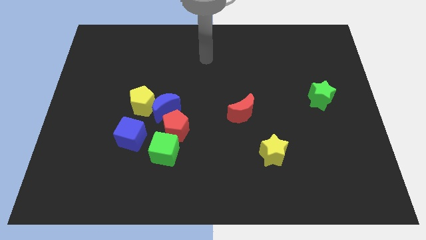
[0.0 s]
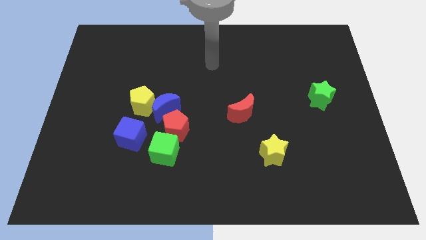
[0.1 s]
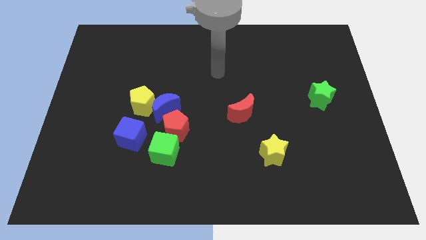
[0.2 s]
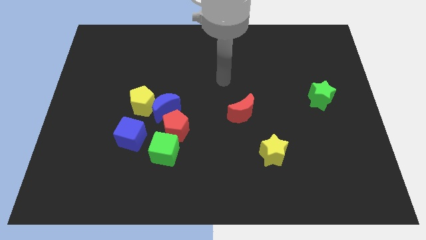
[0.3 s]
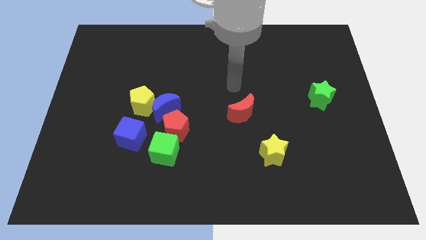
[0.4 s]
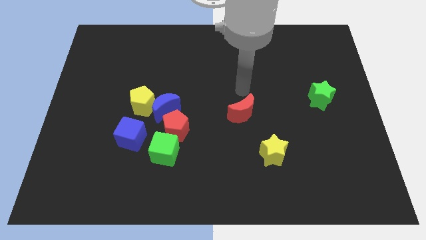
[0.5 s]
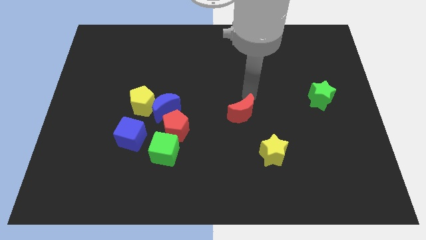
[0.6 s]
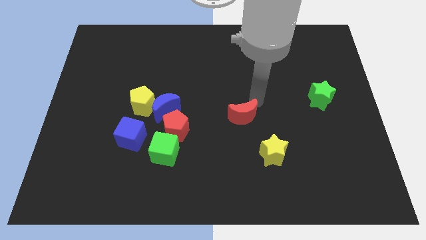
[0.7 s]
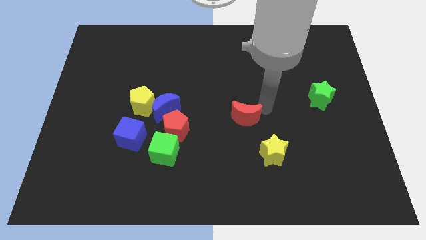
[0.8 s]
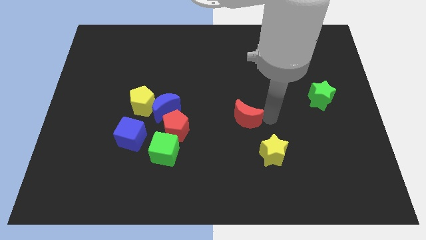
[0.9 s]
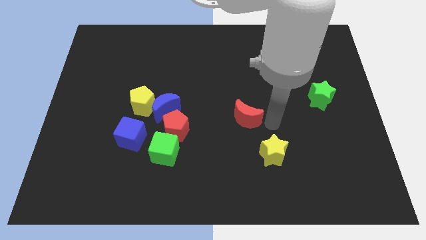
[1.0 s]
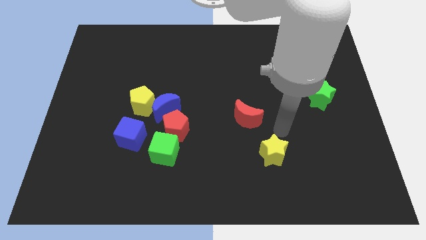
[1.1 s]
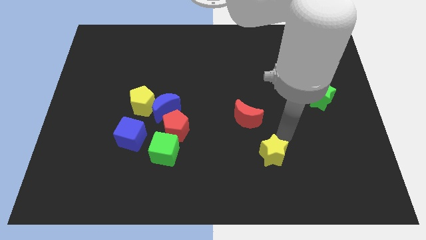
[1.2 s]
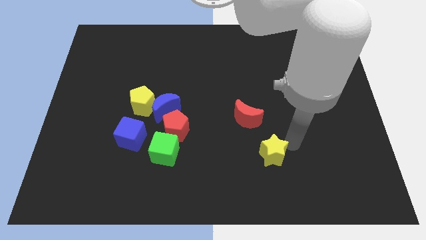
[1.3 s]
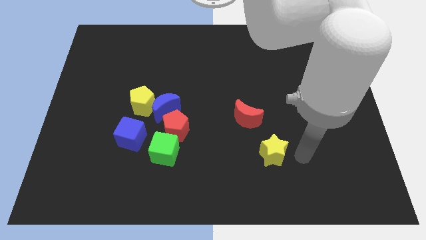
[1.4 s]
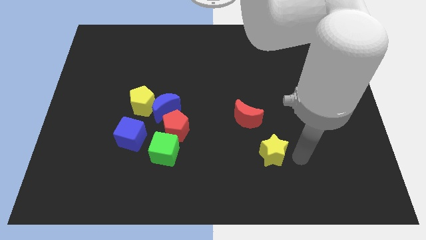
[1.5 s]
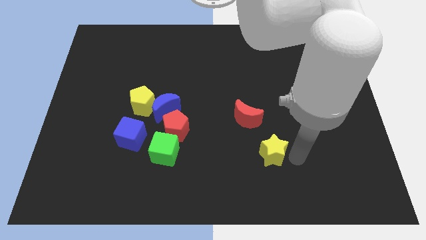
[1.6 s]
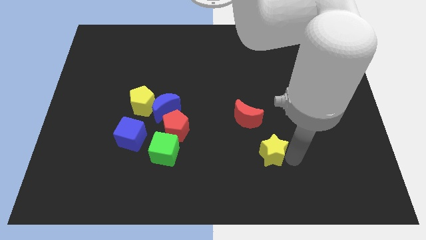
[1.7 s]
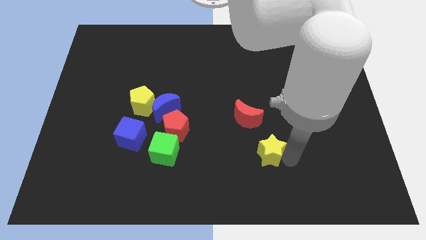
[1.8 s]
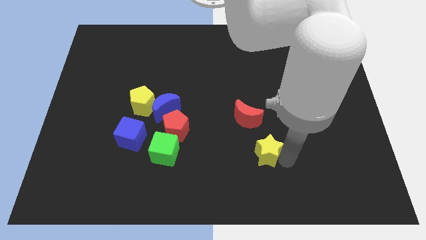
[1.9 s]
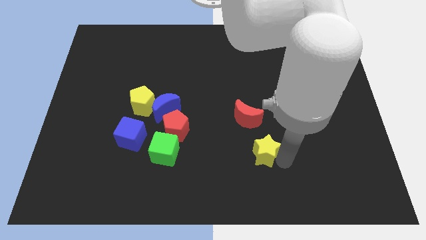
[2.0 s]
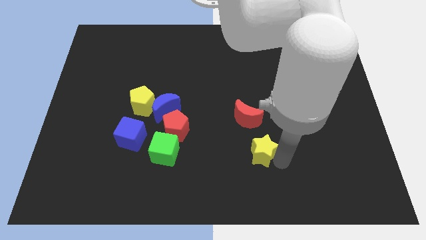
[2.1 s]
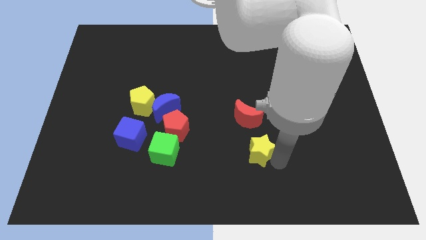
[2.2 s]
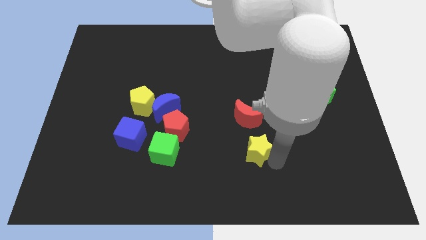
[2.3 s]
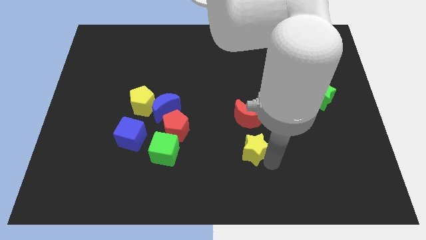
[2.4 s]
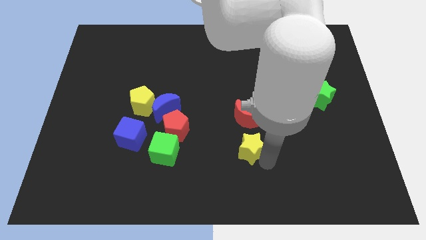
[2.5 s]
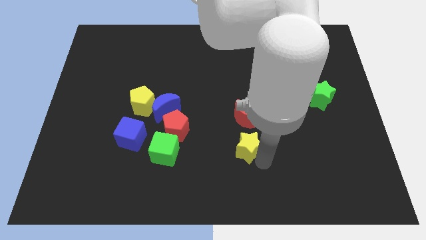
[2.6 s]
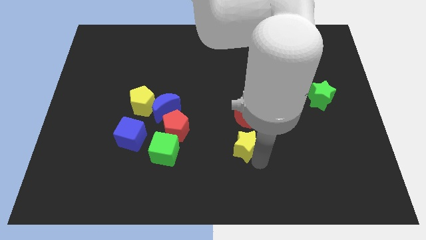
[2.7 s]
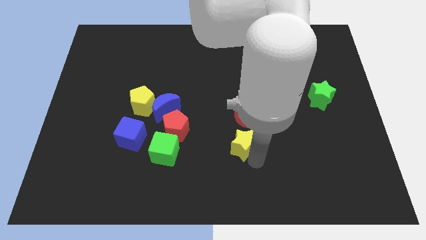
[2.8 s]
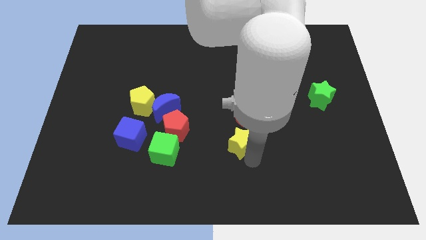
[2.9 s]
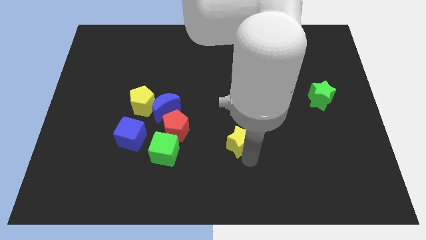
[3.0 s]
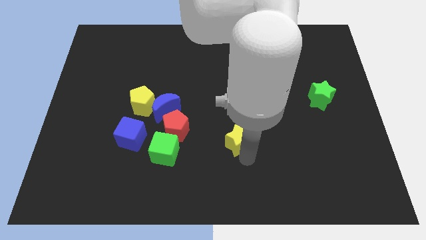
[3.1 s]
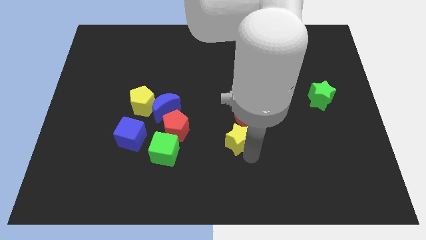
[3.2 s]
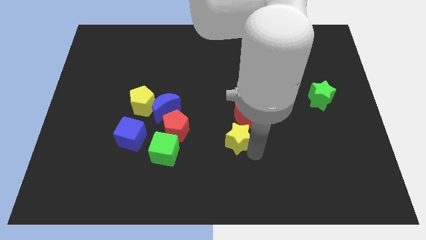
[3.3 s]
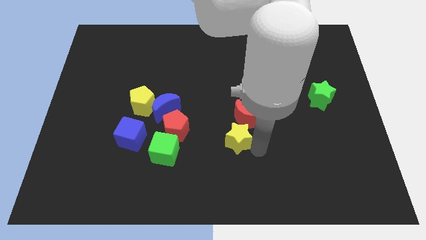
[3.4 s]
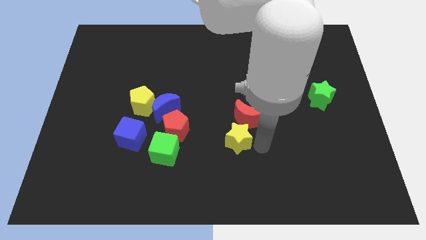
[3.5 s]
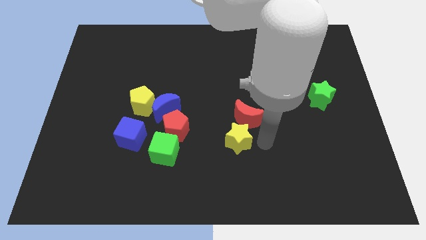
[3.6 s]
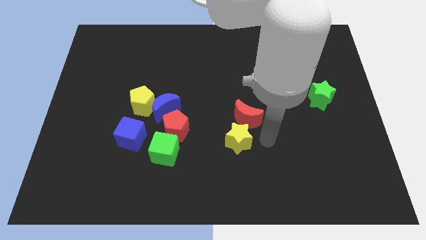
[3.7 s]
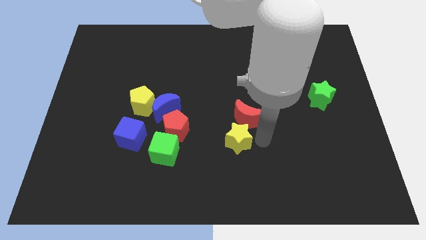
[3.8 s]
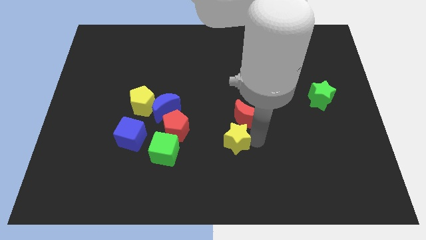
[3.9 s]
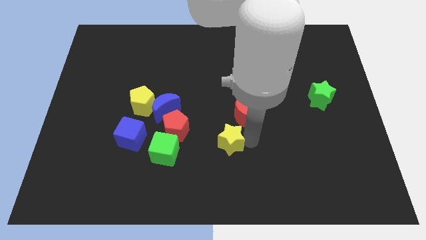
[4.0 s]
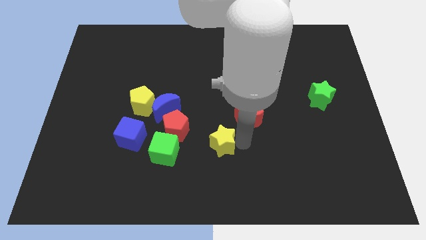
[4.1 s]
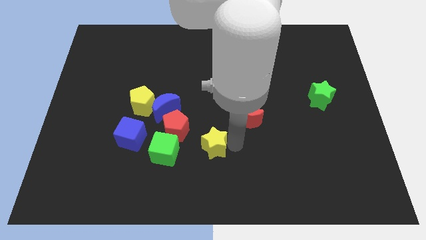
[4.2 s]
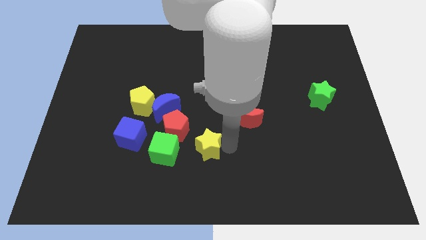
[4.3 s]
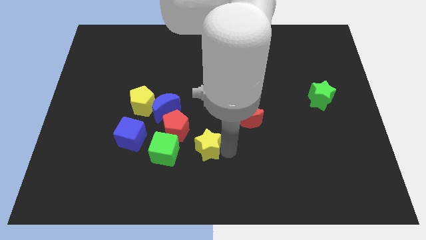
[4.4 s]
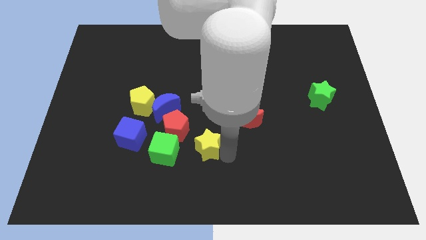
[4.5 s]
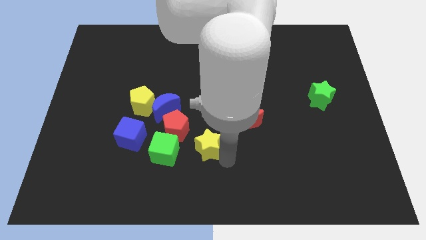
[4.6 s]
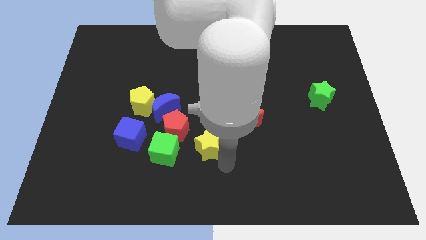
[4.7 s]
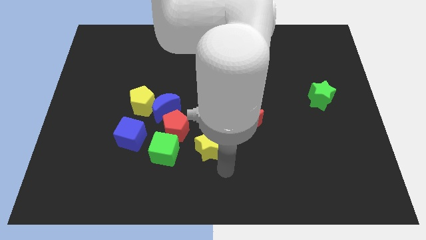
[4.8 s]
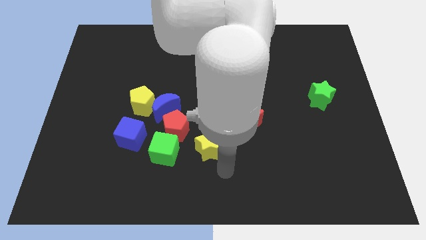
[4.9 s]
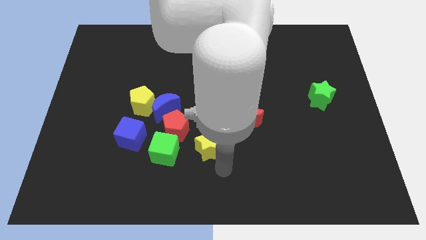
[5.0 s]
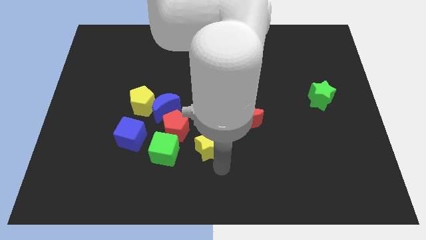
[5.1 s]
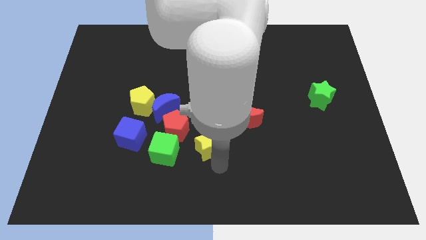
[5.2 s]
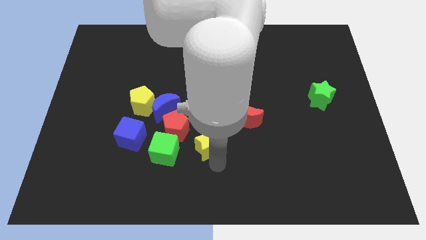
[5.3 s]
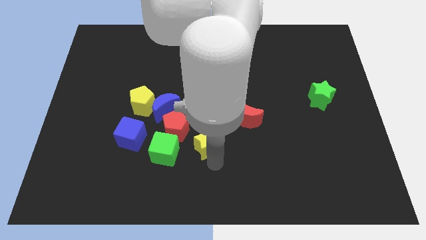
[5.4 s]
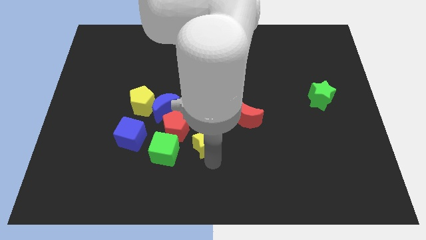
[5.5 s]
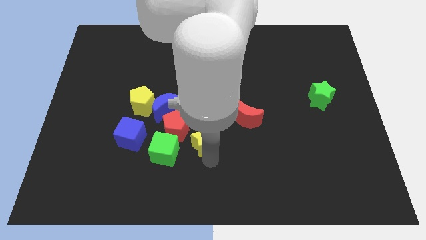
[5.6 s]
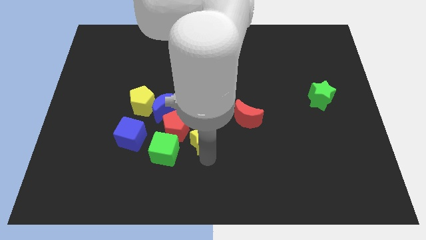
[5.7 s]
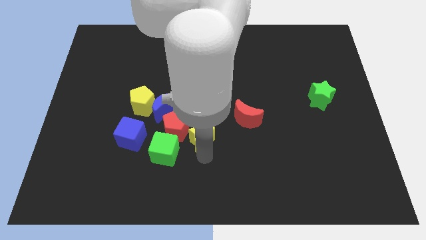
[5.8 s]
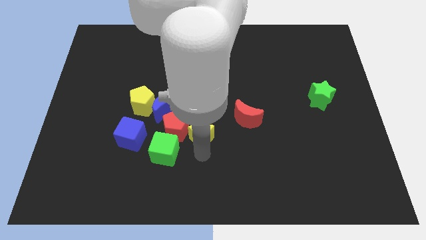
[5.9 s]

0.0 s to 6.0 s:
put the yellow star next to the red pentagon

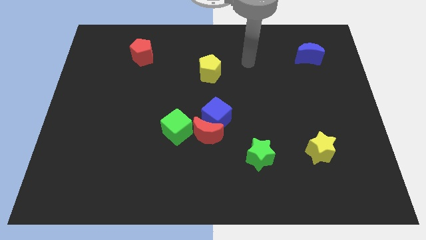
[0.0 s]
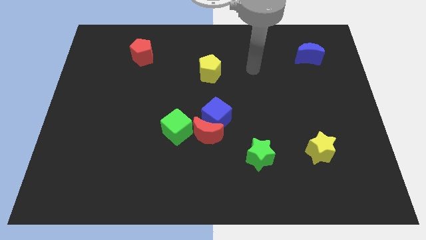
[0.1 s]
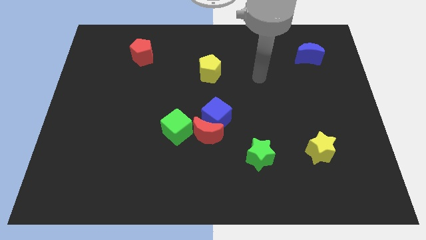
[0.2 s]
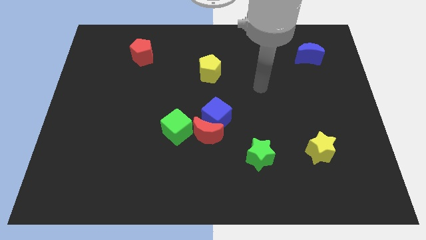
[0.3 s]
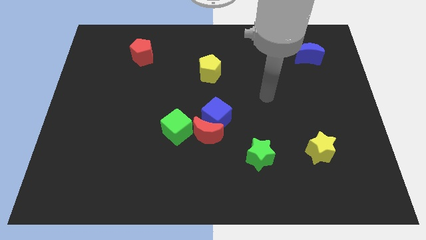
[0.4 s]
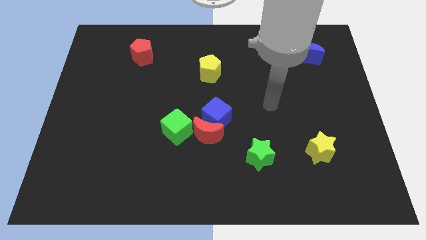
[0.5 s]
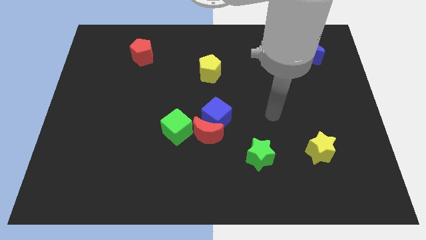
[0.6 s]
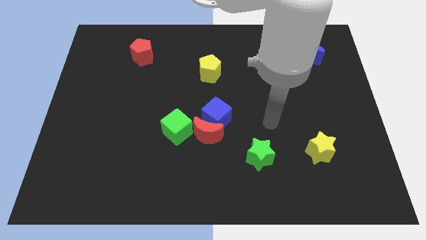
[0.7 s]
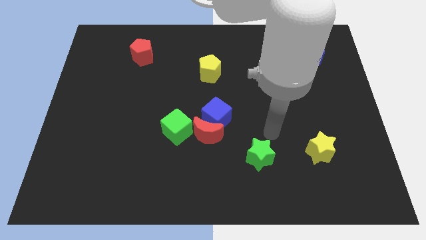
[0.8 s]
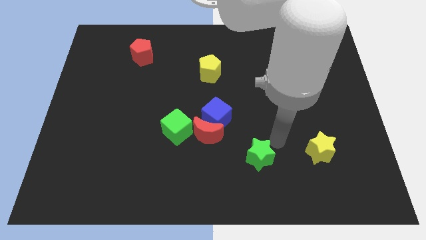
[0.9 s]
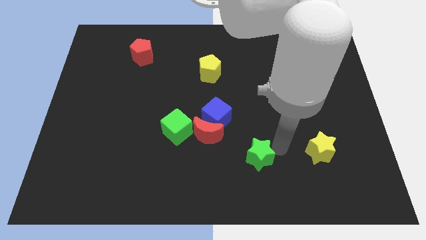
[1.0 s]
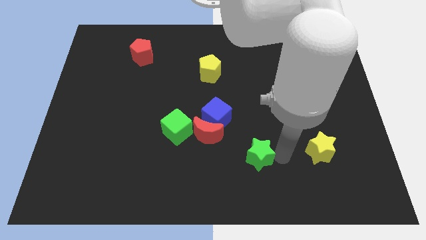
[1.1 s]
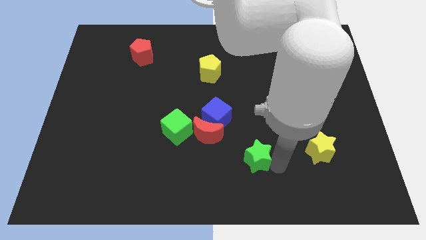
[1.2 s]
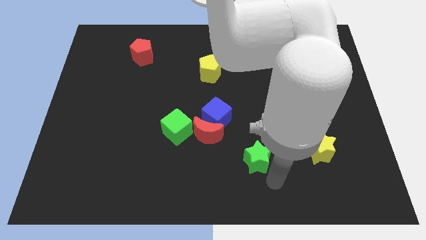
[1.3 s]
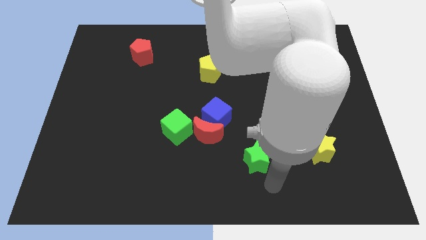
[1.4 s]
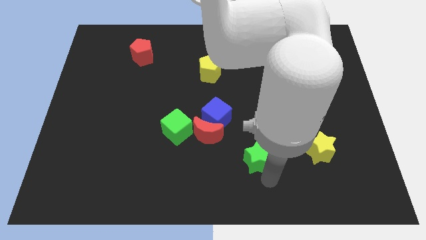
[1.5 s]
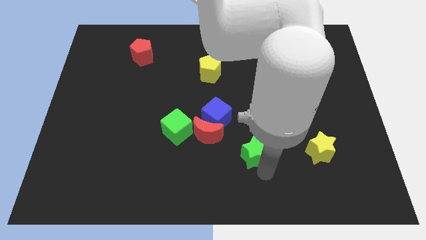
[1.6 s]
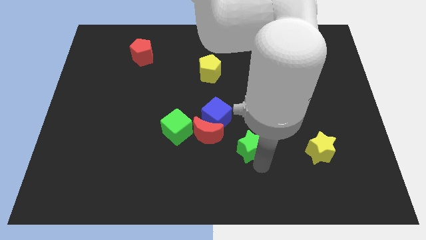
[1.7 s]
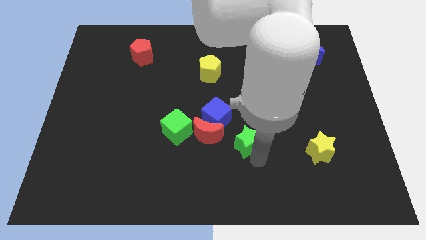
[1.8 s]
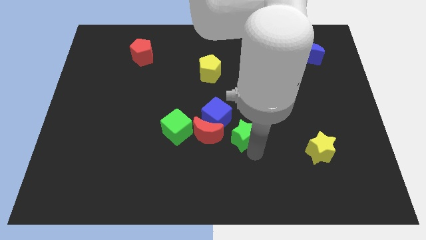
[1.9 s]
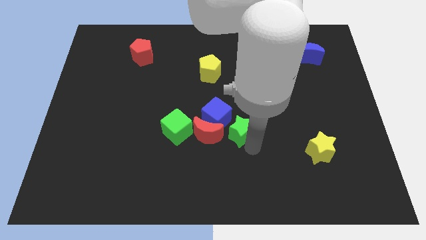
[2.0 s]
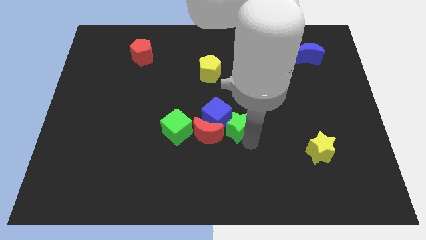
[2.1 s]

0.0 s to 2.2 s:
slide the green star next to the blue cube
